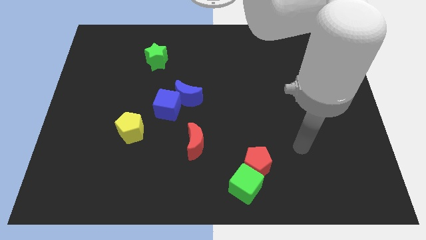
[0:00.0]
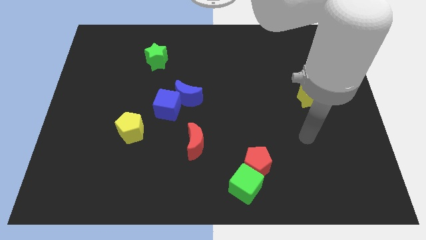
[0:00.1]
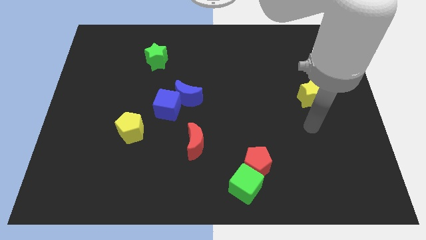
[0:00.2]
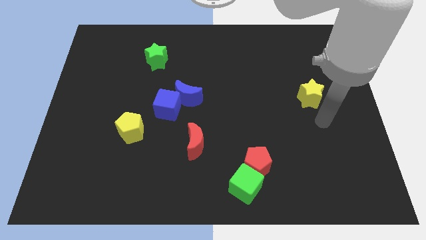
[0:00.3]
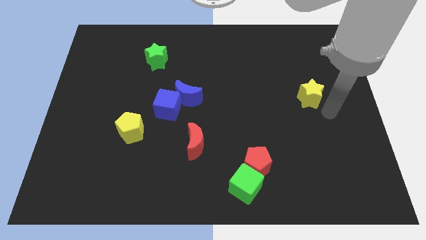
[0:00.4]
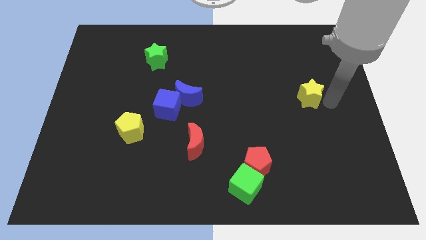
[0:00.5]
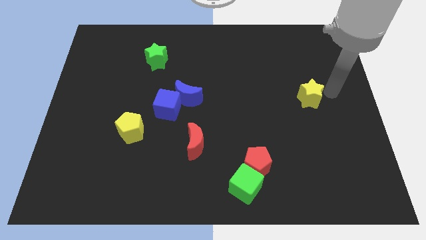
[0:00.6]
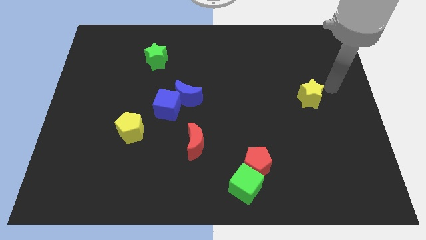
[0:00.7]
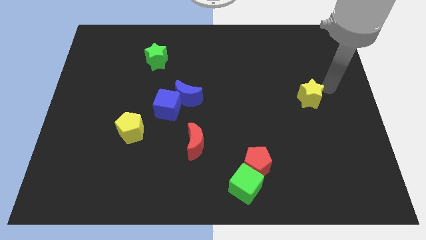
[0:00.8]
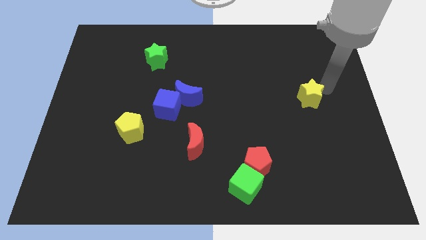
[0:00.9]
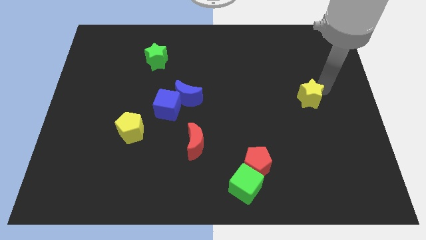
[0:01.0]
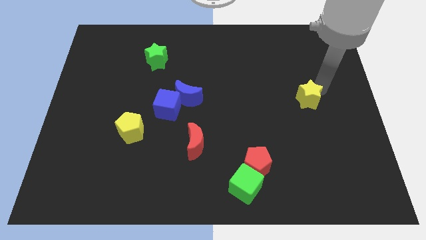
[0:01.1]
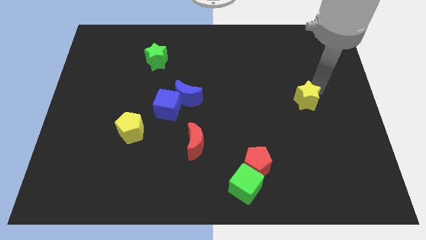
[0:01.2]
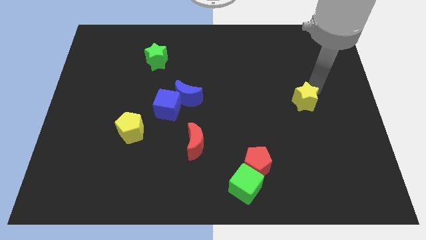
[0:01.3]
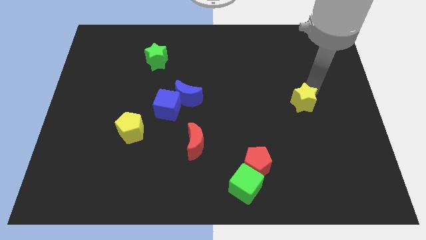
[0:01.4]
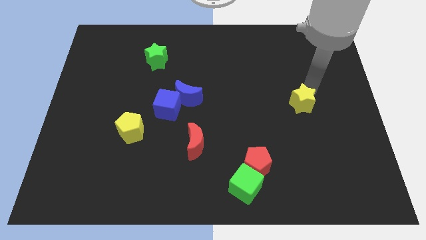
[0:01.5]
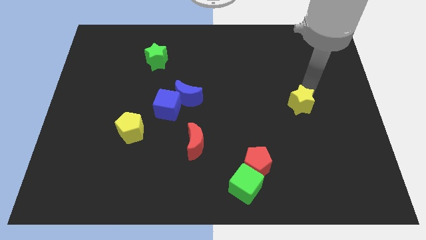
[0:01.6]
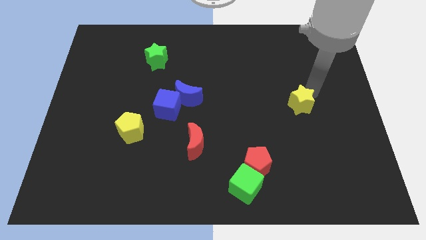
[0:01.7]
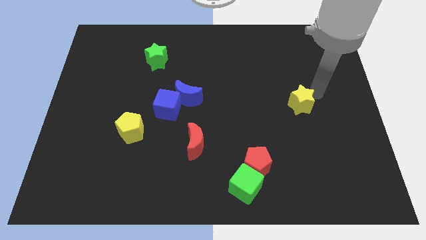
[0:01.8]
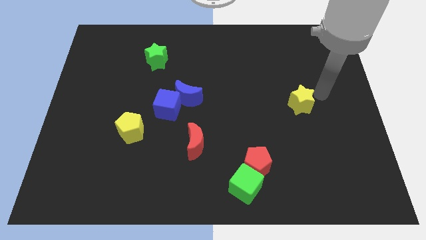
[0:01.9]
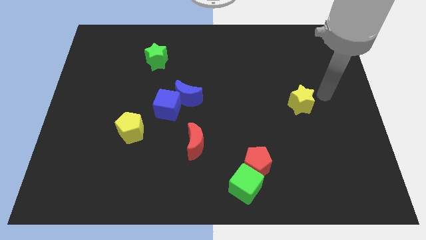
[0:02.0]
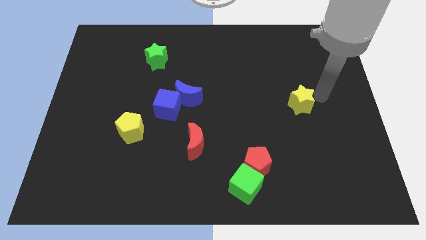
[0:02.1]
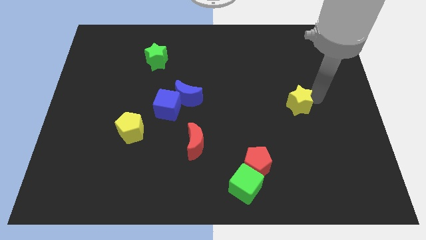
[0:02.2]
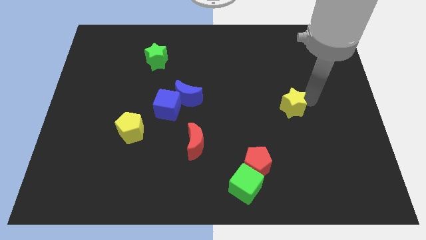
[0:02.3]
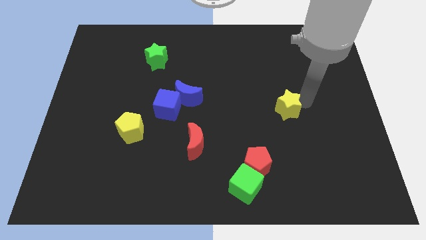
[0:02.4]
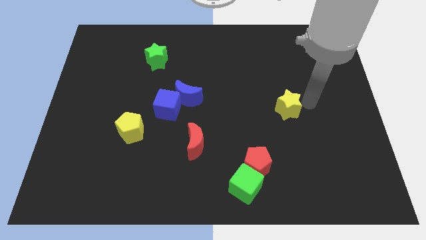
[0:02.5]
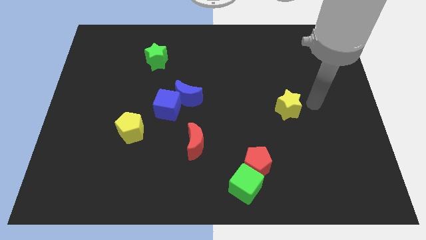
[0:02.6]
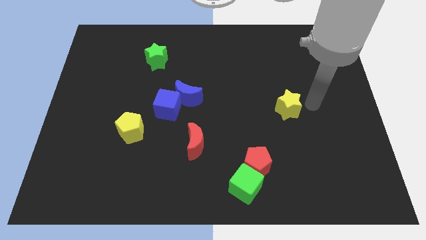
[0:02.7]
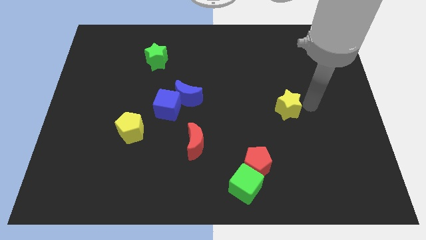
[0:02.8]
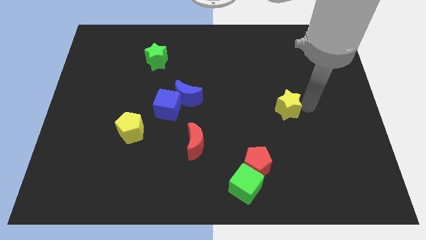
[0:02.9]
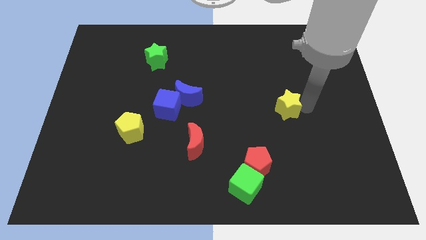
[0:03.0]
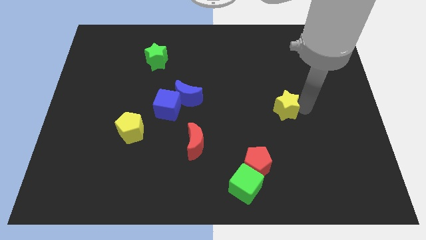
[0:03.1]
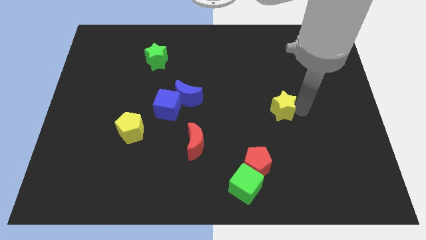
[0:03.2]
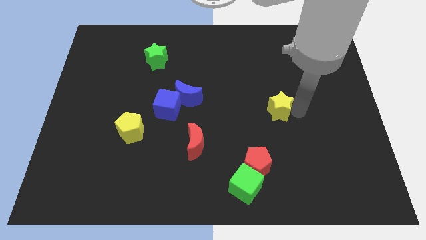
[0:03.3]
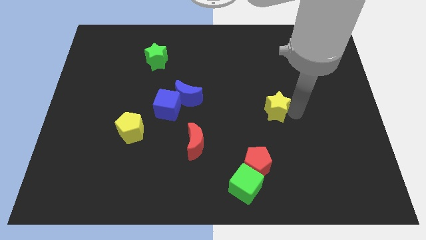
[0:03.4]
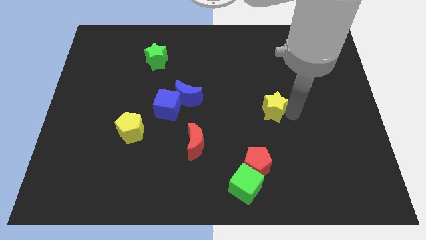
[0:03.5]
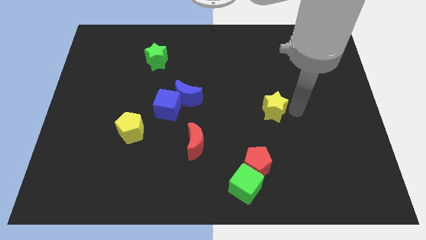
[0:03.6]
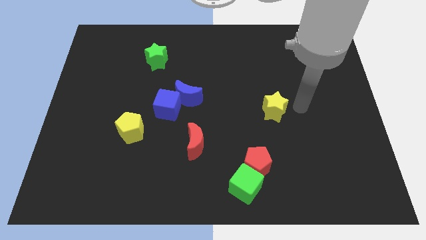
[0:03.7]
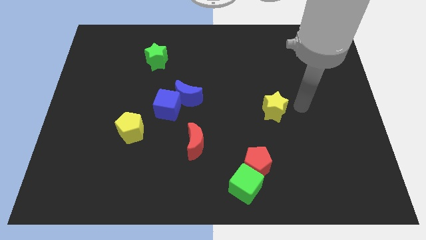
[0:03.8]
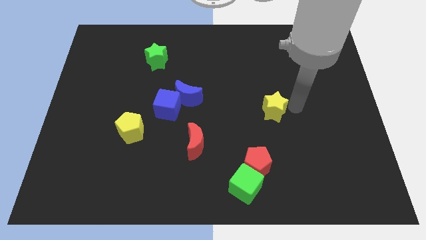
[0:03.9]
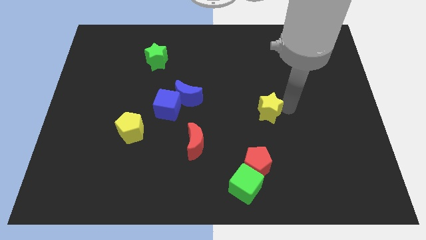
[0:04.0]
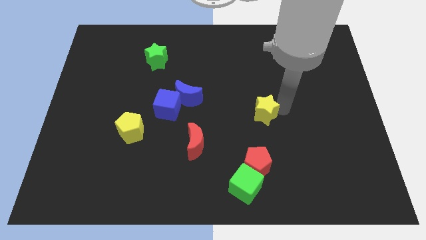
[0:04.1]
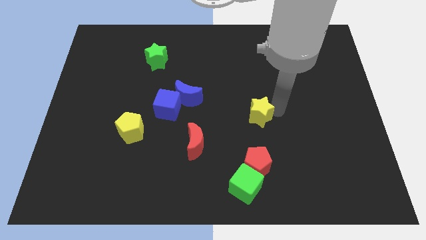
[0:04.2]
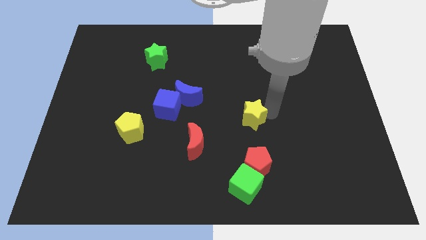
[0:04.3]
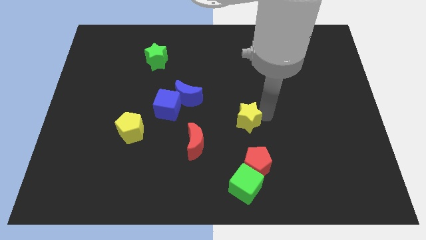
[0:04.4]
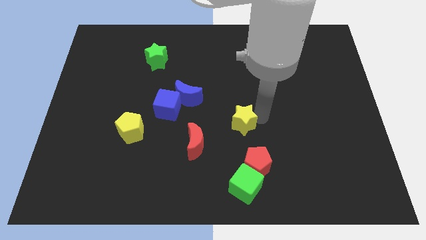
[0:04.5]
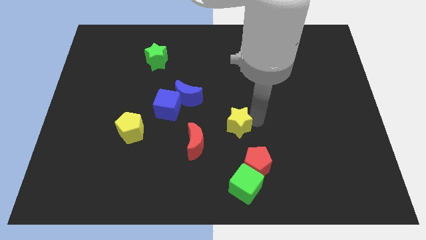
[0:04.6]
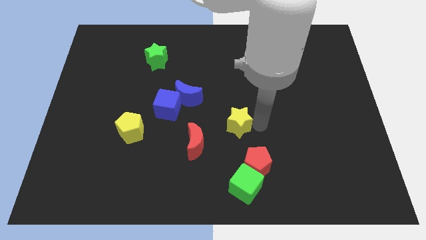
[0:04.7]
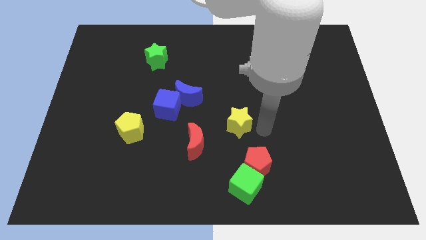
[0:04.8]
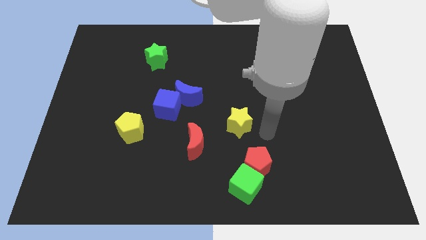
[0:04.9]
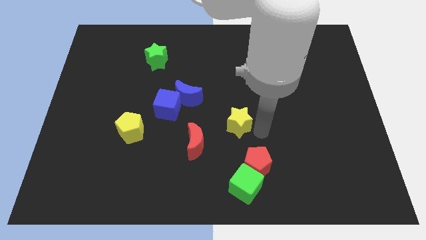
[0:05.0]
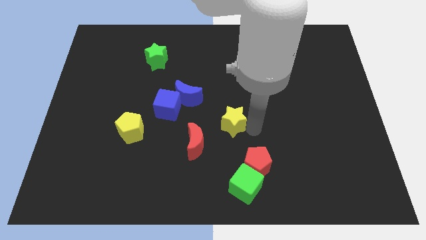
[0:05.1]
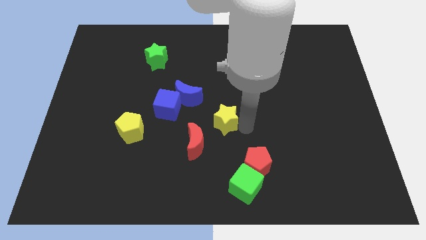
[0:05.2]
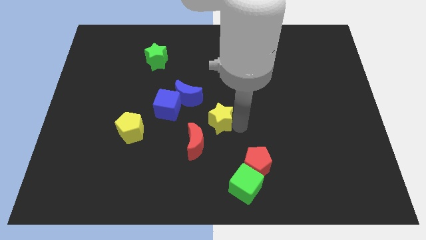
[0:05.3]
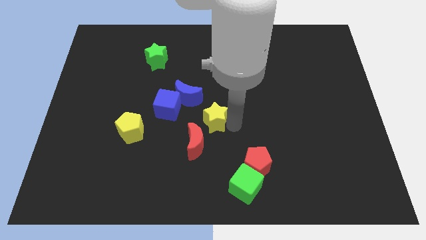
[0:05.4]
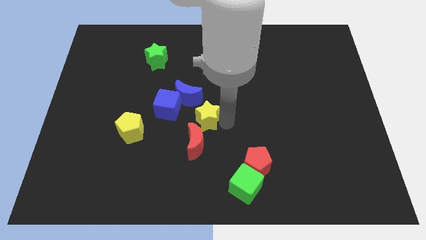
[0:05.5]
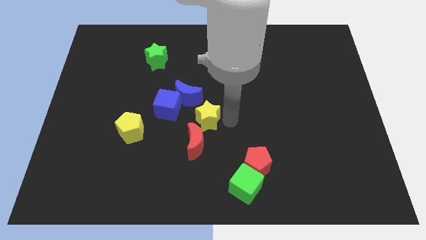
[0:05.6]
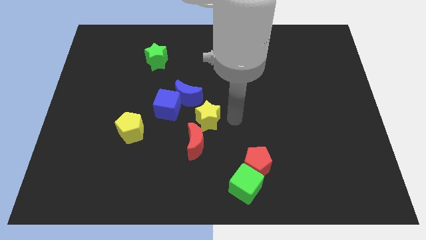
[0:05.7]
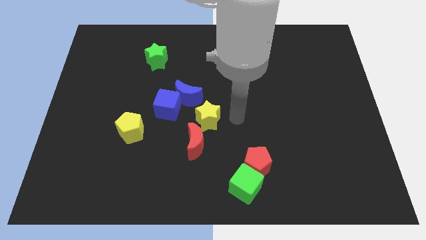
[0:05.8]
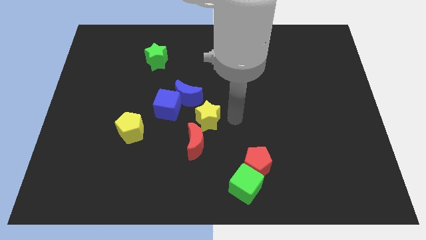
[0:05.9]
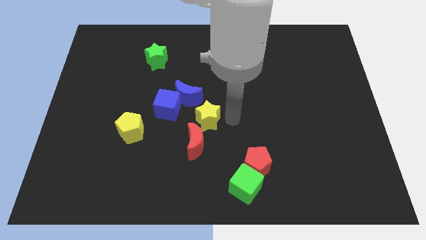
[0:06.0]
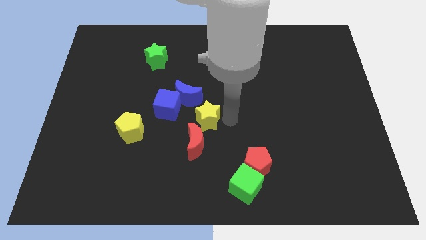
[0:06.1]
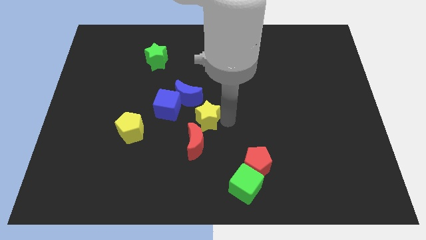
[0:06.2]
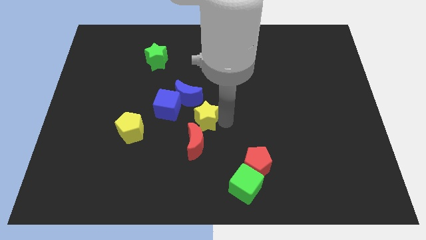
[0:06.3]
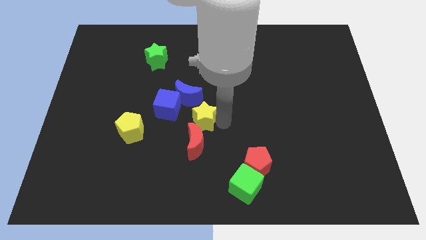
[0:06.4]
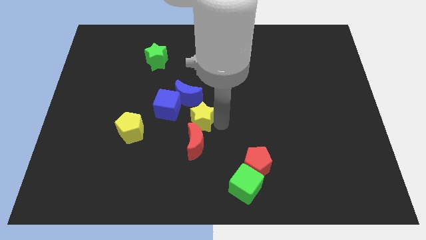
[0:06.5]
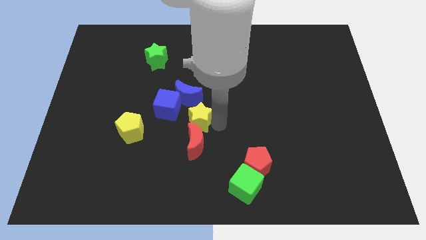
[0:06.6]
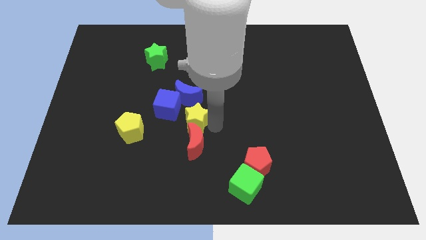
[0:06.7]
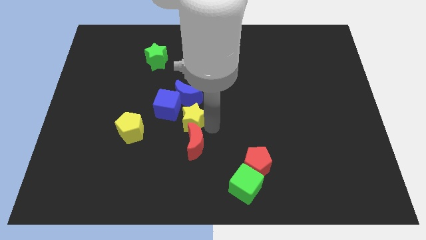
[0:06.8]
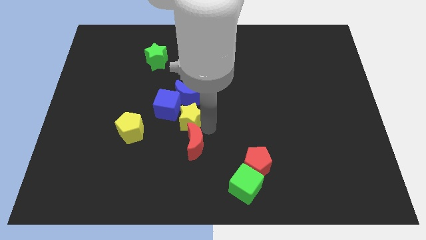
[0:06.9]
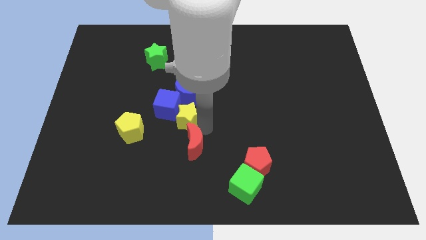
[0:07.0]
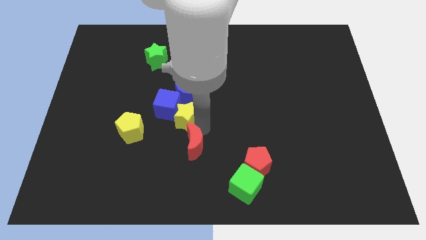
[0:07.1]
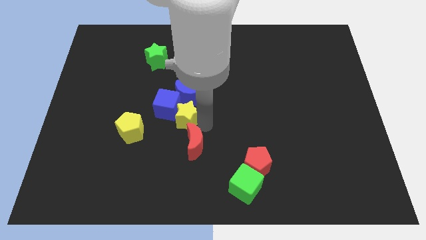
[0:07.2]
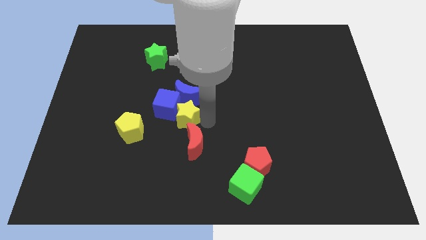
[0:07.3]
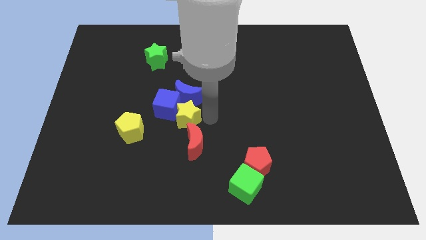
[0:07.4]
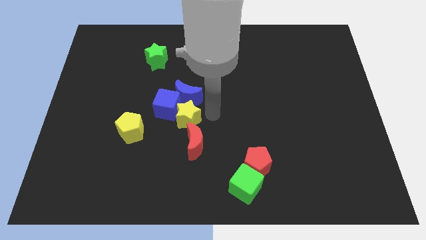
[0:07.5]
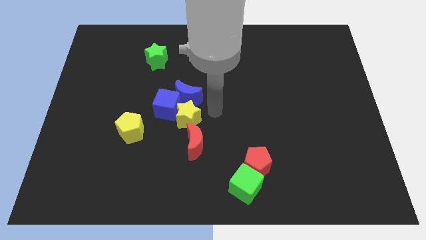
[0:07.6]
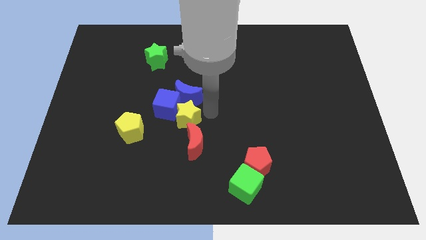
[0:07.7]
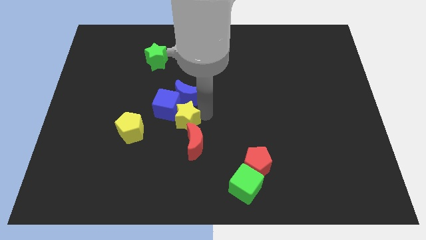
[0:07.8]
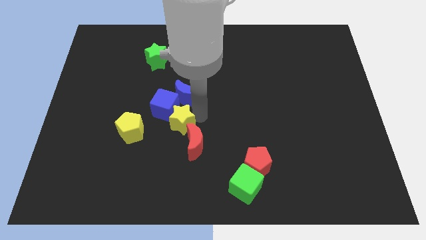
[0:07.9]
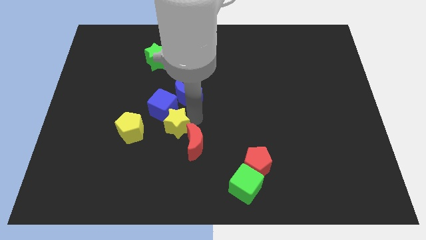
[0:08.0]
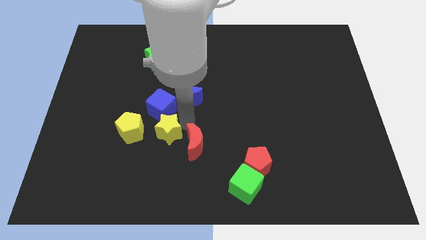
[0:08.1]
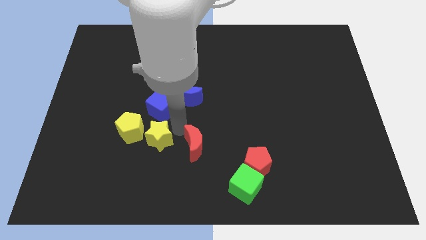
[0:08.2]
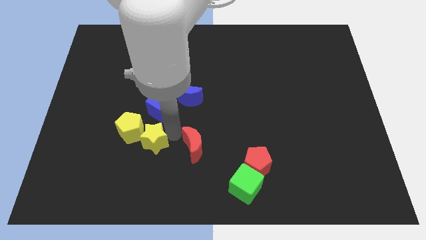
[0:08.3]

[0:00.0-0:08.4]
push the yellow star towards the yellow pentagon
